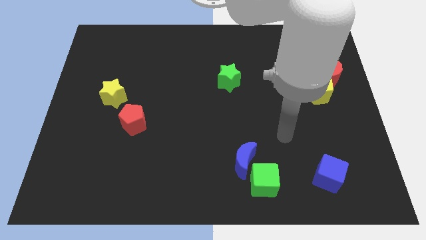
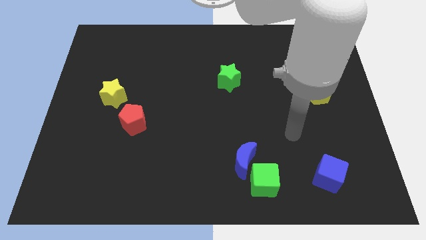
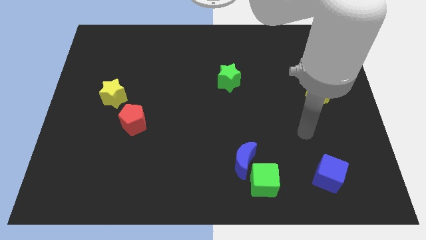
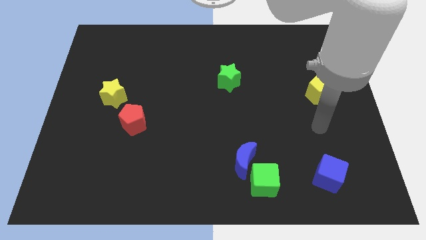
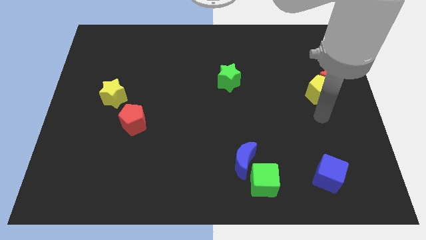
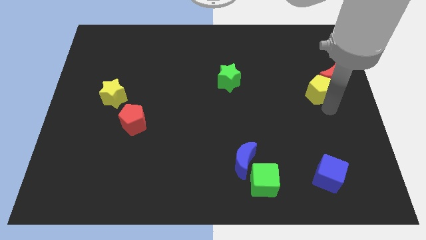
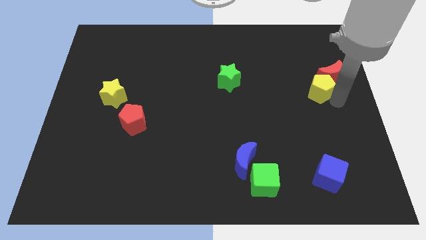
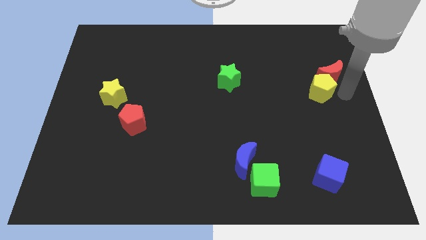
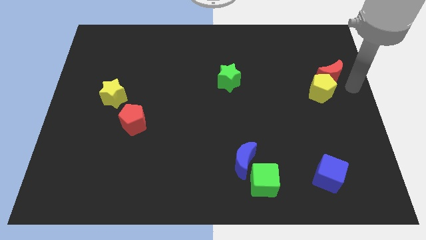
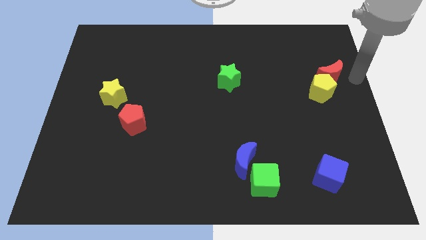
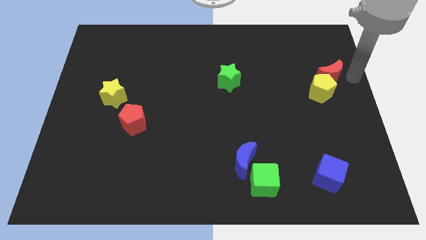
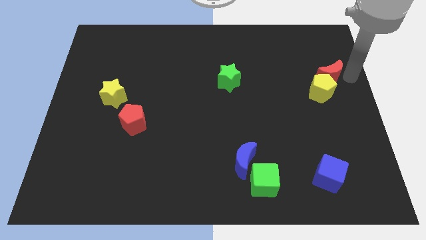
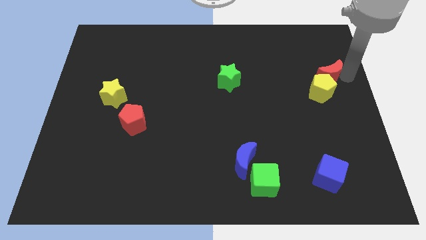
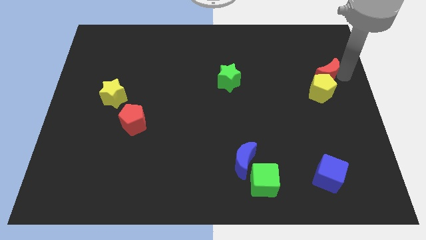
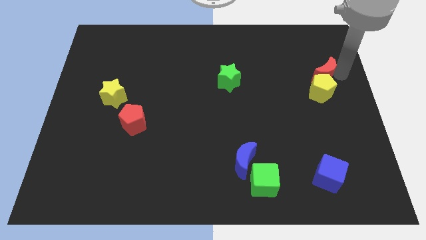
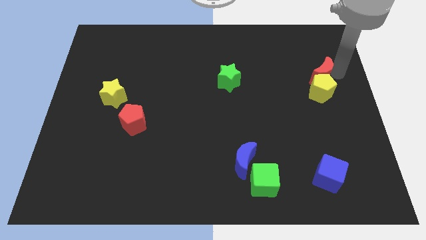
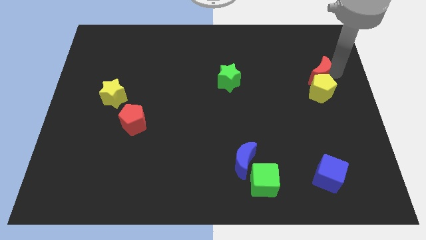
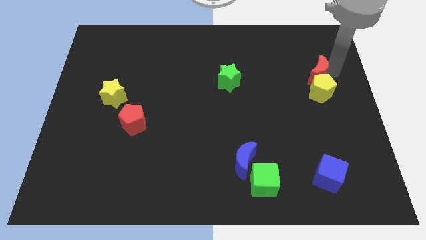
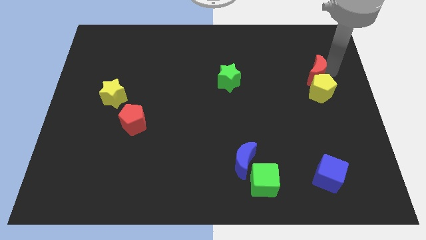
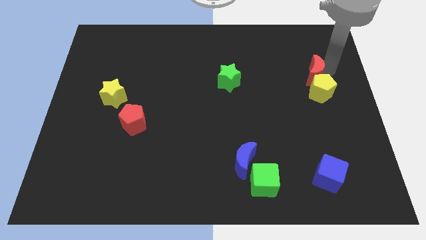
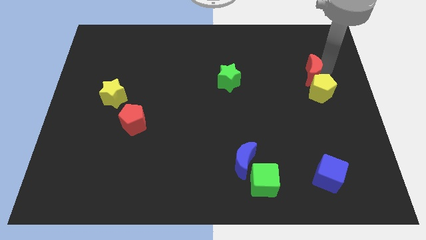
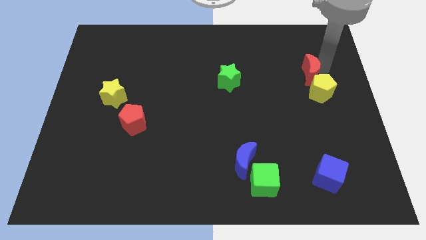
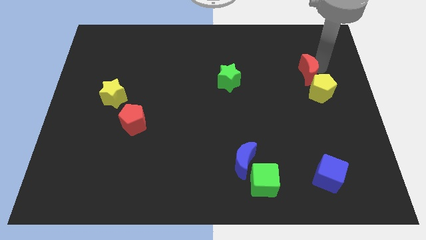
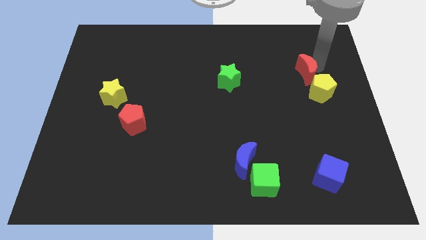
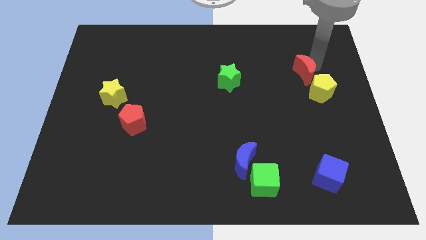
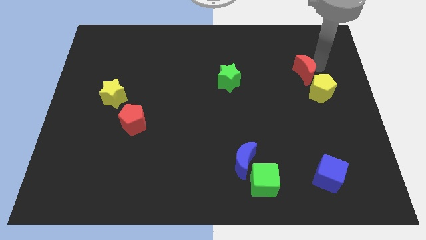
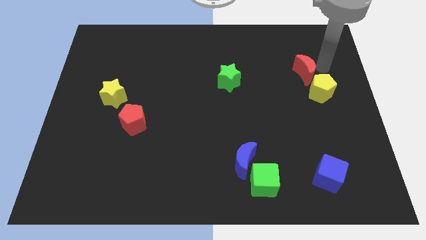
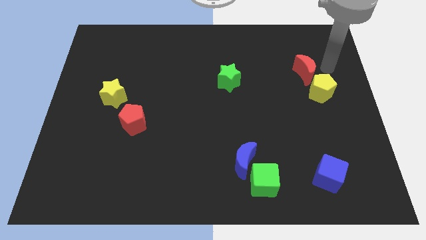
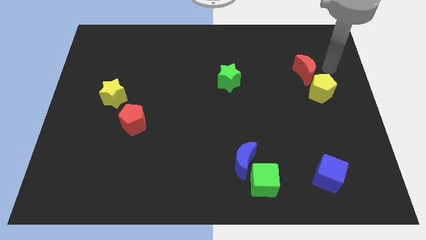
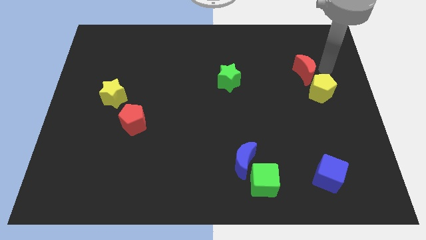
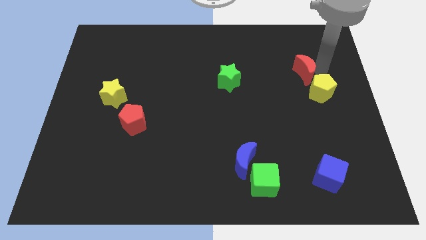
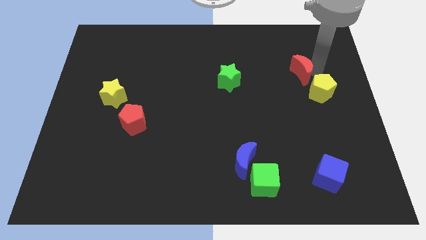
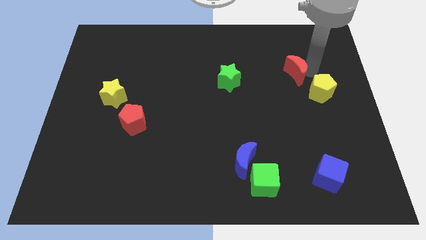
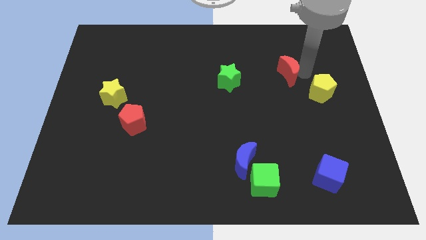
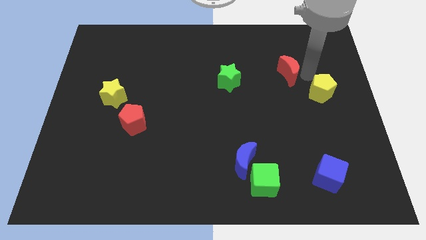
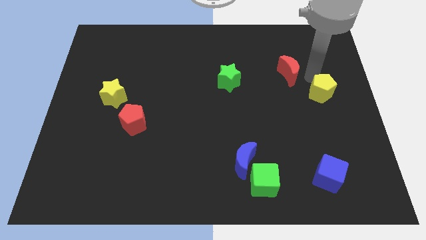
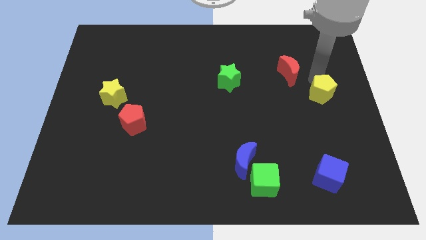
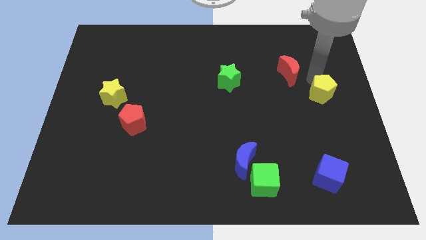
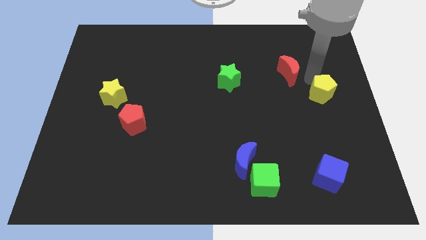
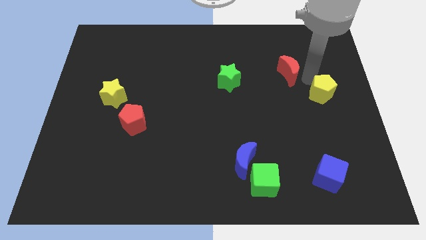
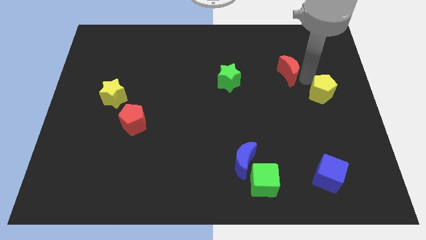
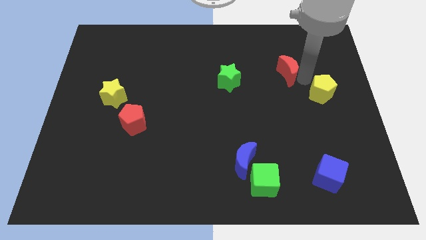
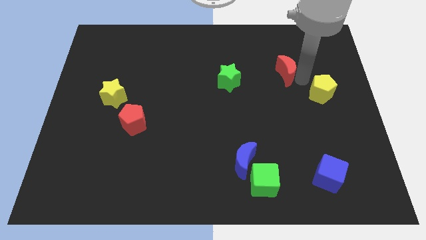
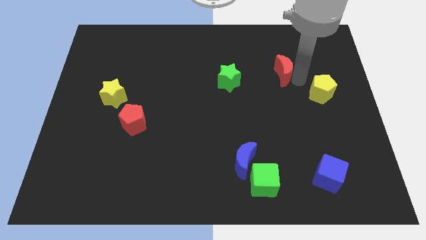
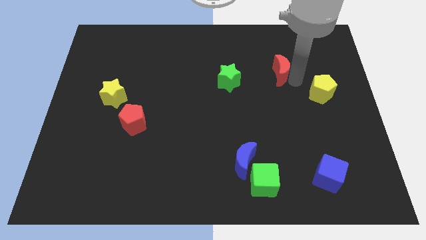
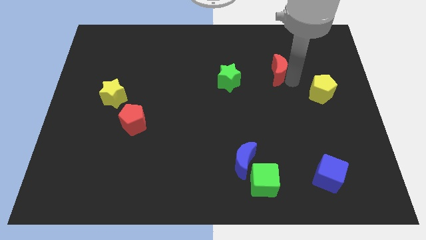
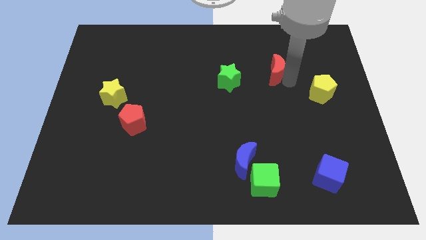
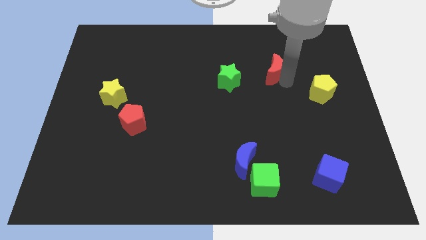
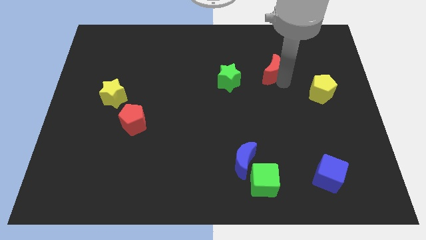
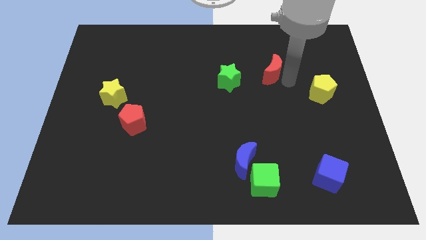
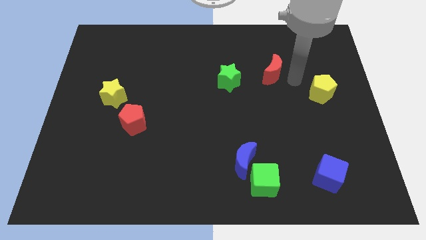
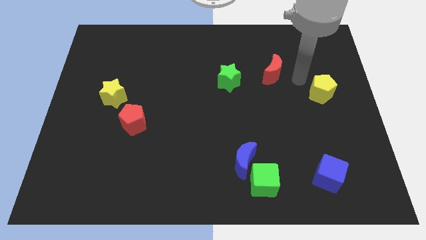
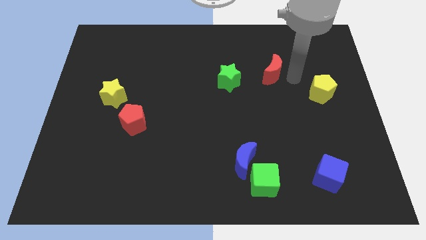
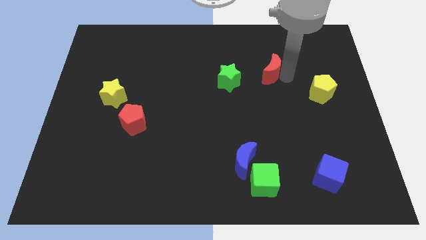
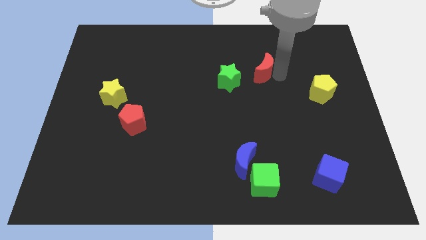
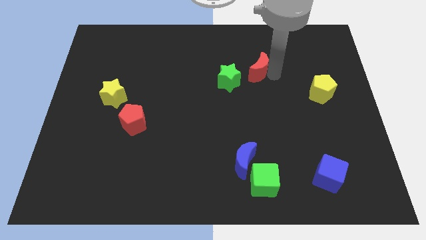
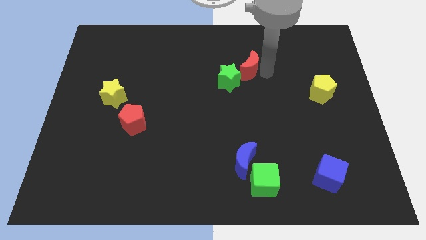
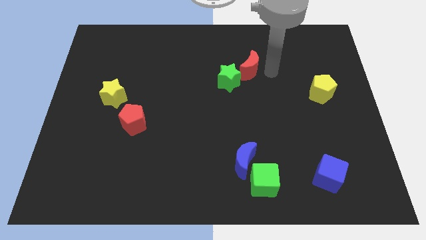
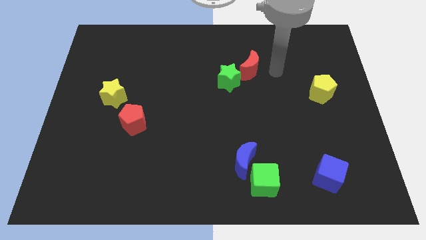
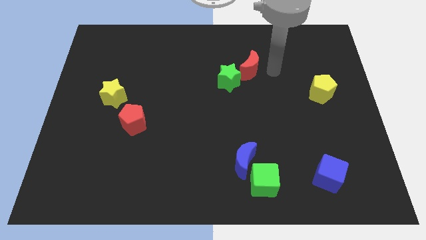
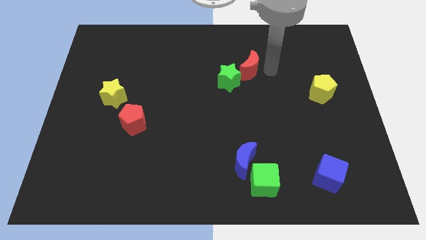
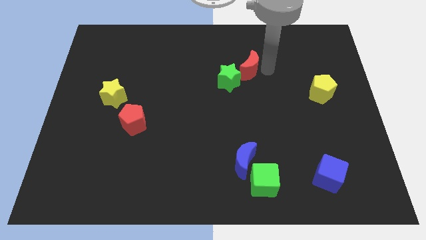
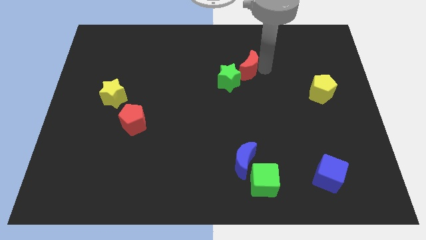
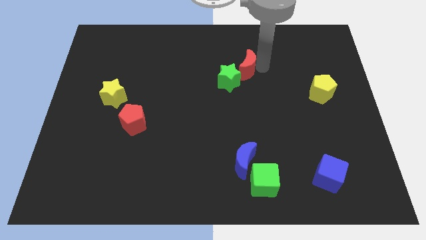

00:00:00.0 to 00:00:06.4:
slide the red moon left

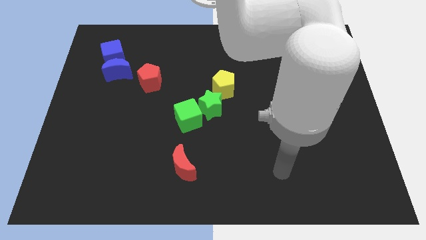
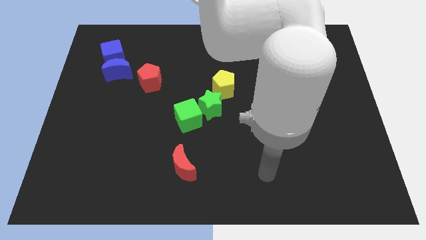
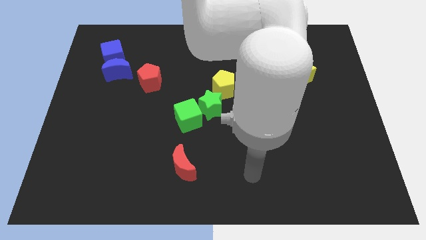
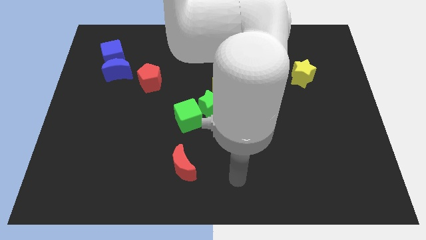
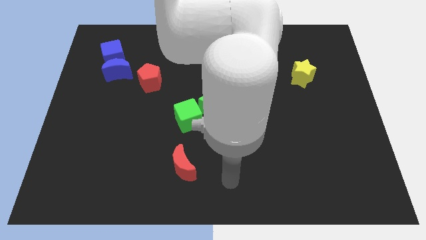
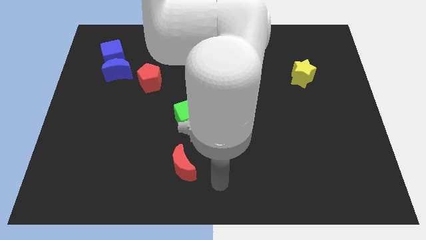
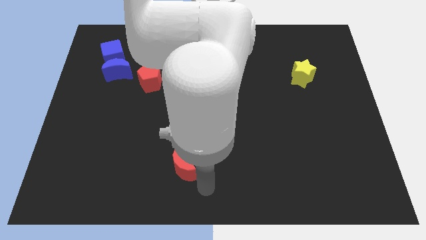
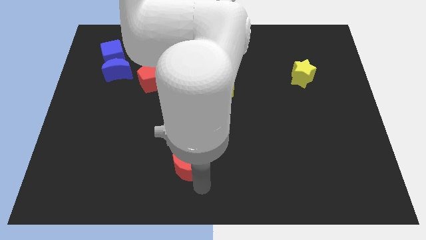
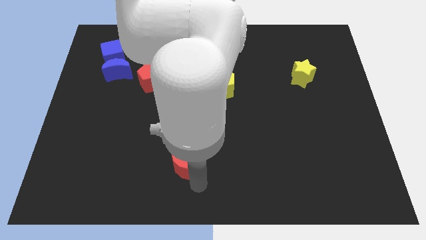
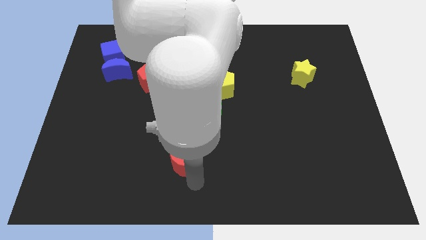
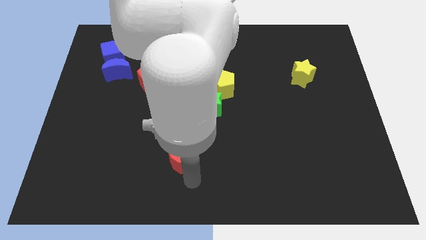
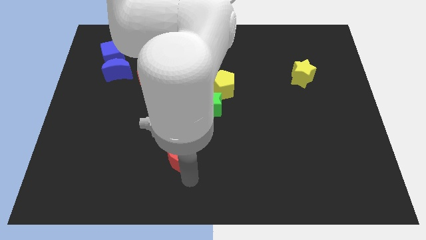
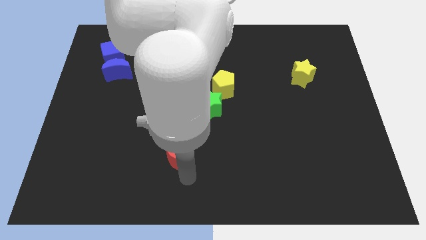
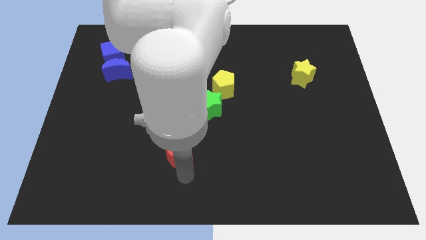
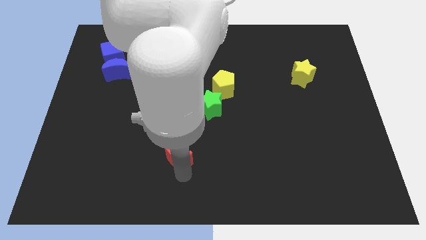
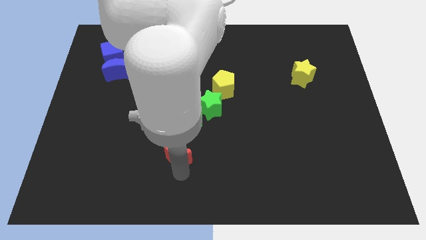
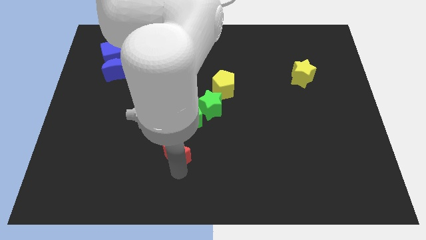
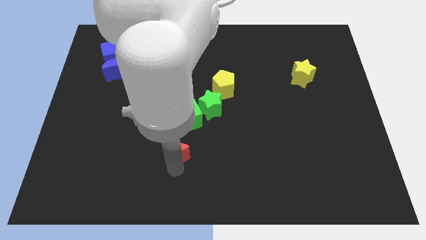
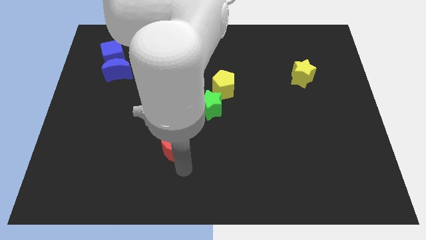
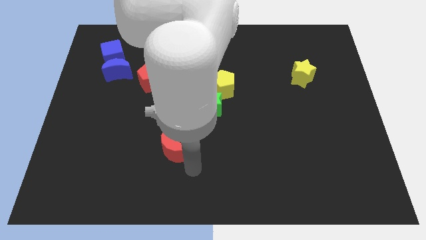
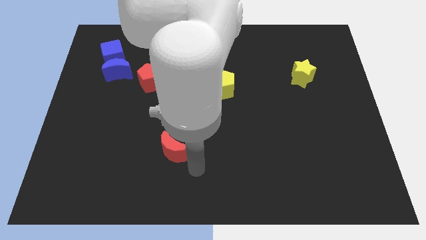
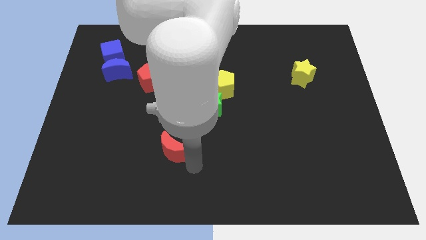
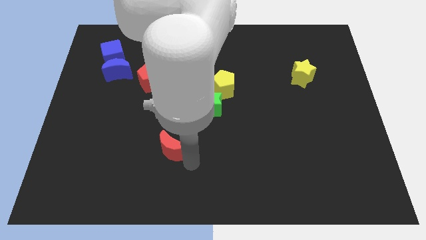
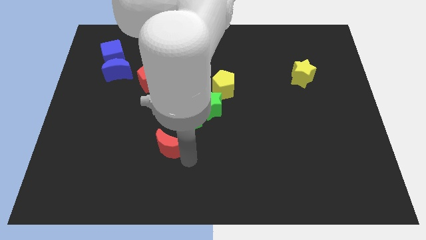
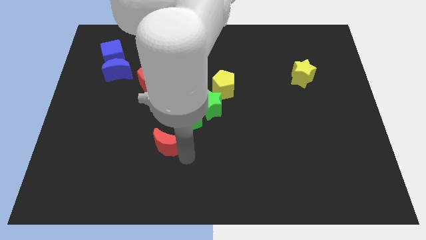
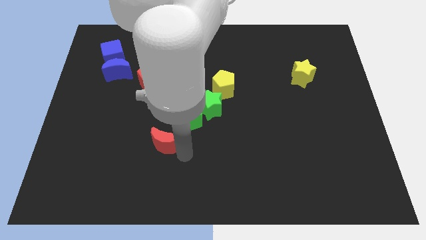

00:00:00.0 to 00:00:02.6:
slightly slide the red moon up and then left
